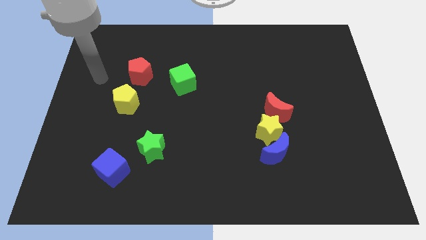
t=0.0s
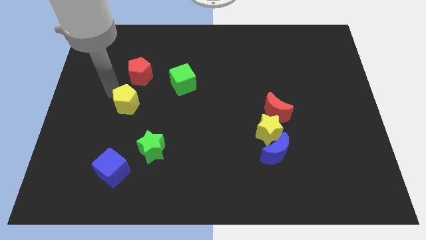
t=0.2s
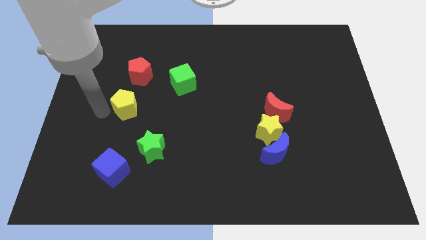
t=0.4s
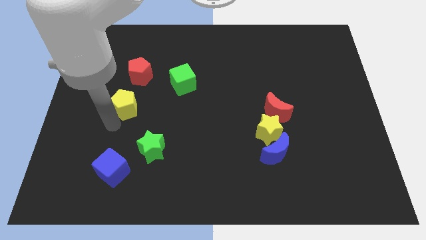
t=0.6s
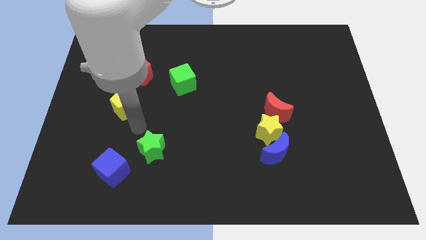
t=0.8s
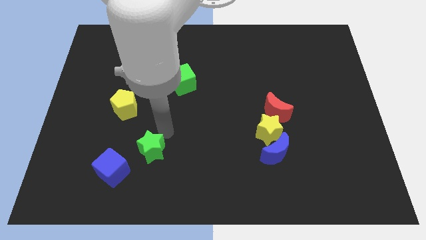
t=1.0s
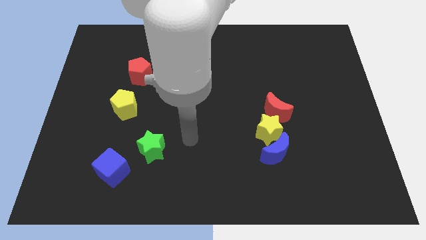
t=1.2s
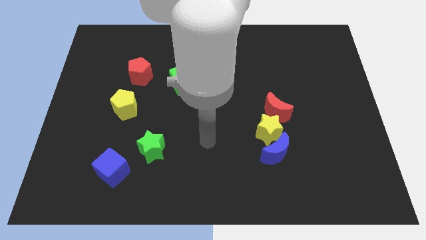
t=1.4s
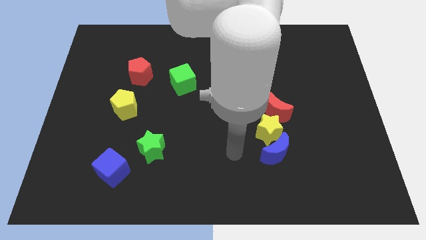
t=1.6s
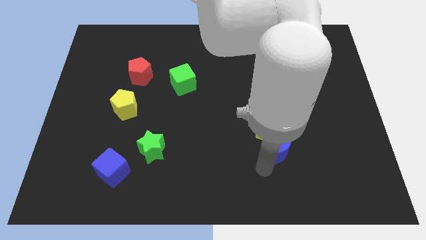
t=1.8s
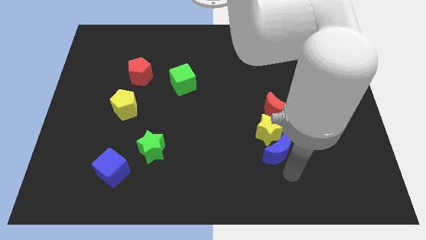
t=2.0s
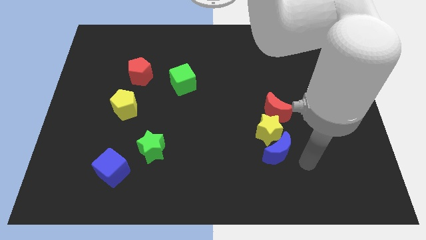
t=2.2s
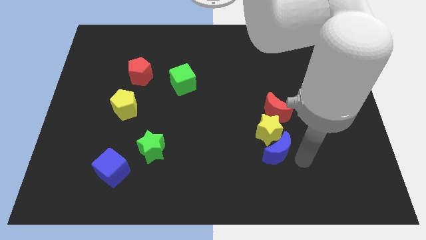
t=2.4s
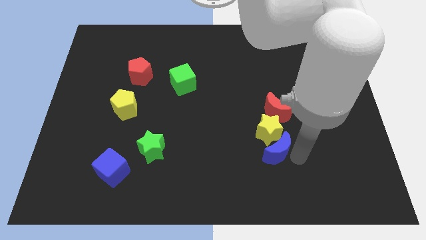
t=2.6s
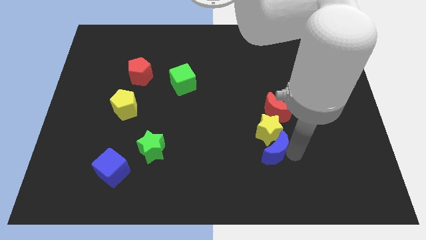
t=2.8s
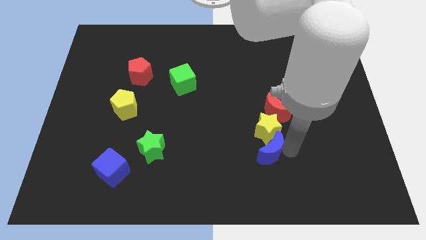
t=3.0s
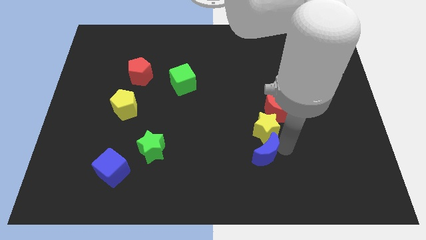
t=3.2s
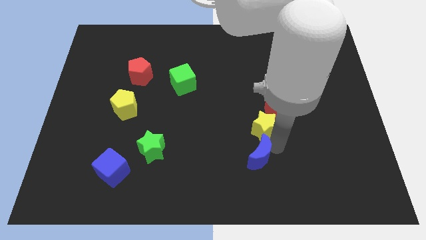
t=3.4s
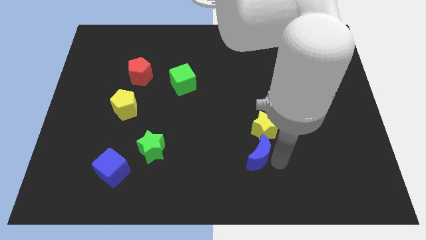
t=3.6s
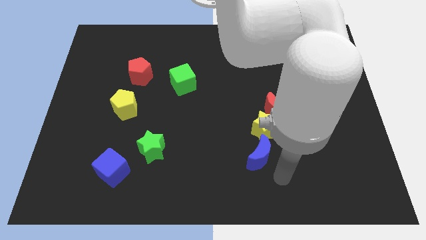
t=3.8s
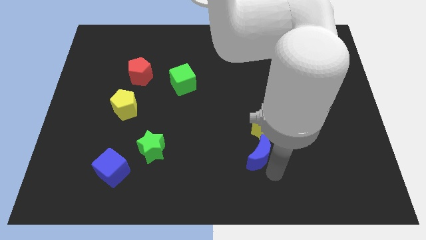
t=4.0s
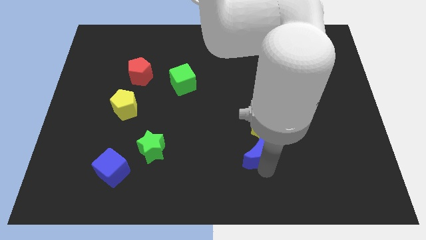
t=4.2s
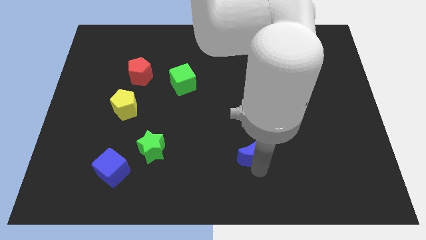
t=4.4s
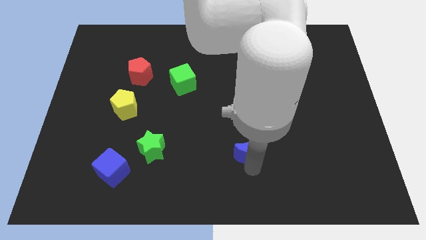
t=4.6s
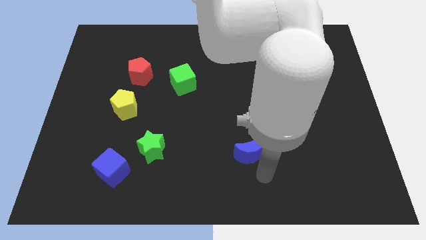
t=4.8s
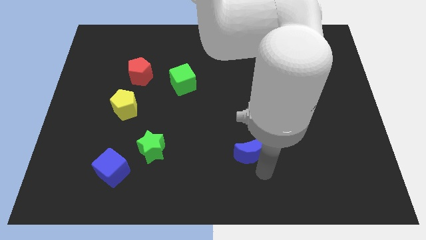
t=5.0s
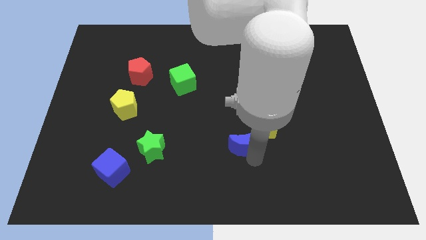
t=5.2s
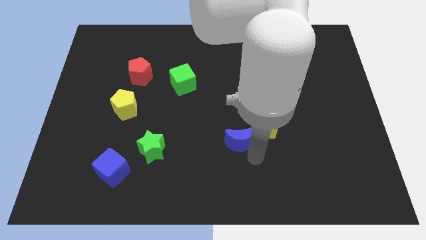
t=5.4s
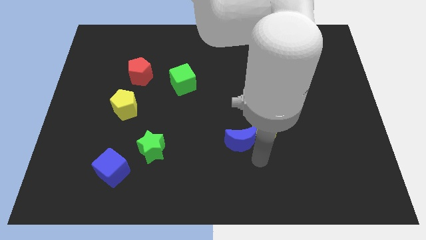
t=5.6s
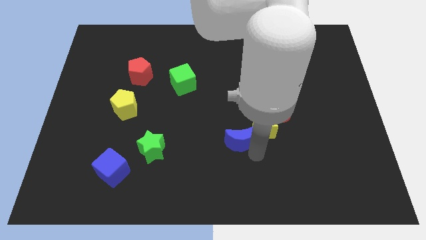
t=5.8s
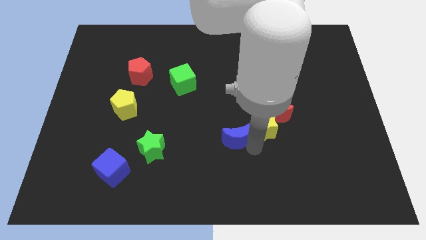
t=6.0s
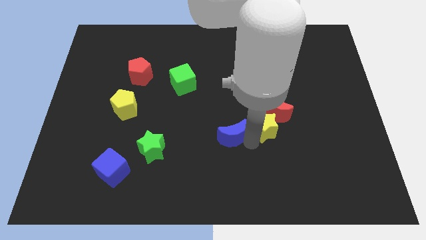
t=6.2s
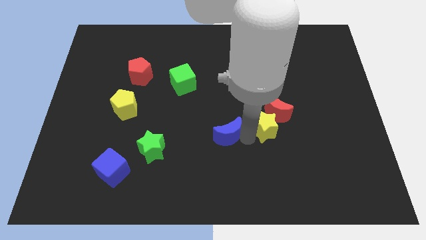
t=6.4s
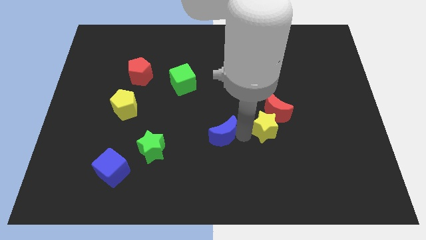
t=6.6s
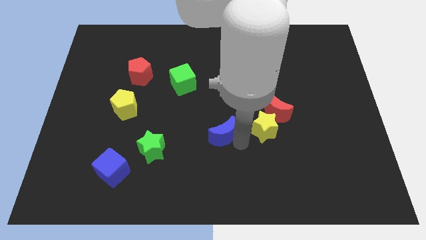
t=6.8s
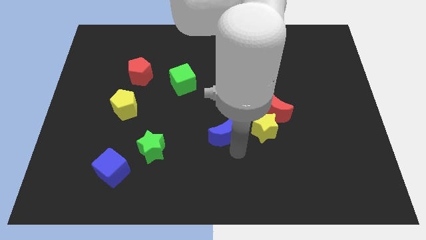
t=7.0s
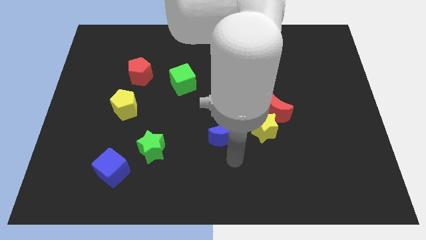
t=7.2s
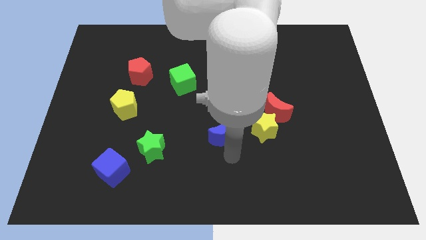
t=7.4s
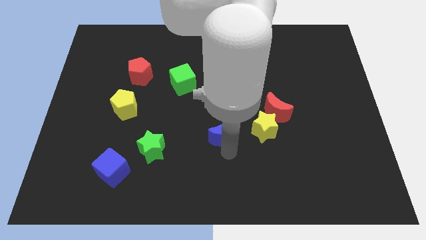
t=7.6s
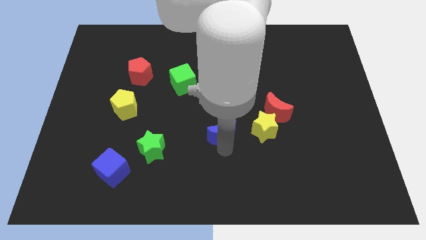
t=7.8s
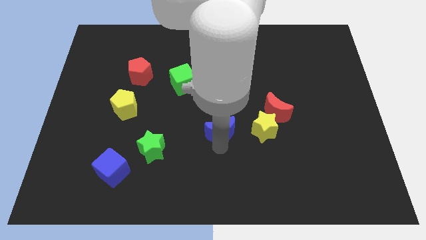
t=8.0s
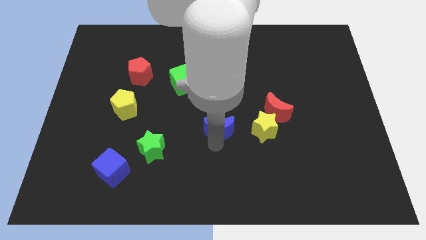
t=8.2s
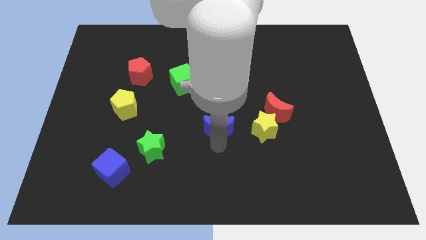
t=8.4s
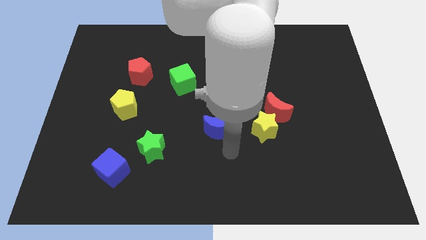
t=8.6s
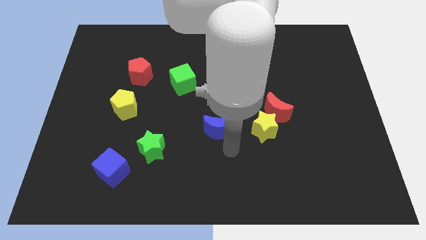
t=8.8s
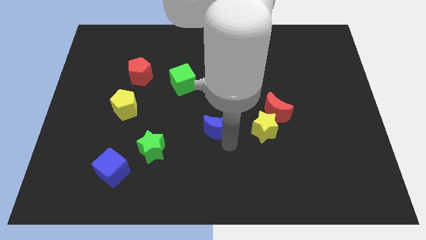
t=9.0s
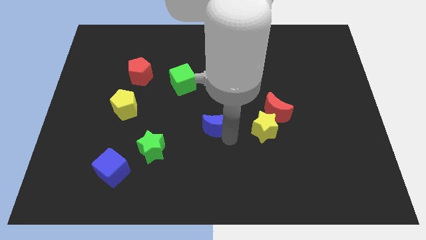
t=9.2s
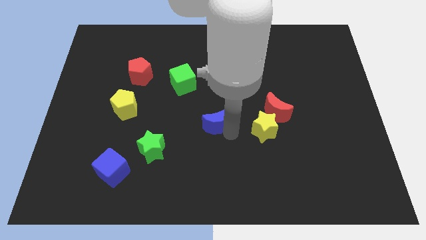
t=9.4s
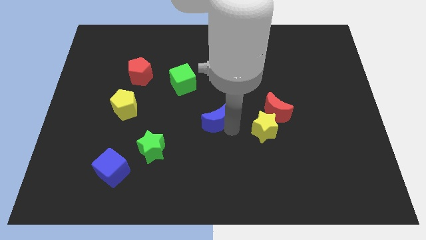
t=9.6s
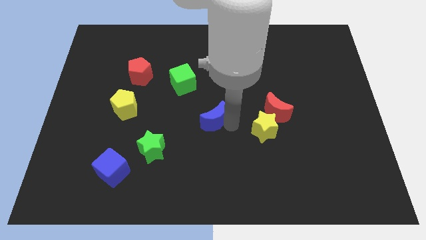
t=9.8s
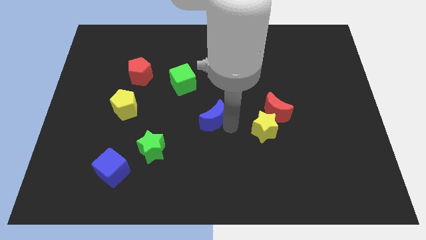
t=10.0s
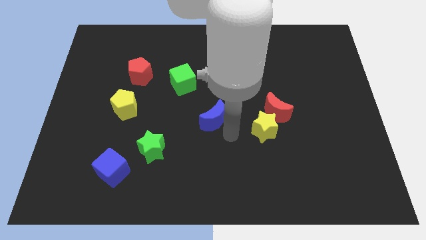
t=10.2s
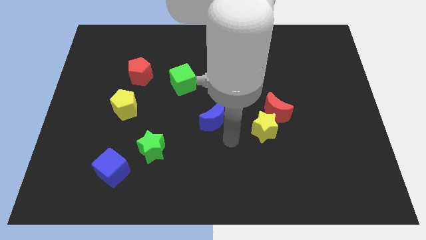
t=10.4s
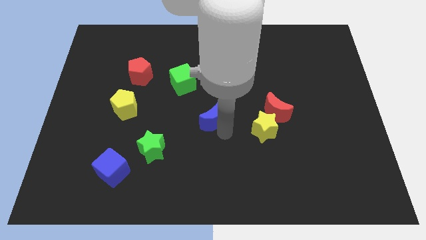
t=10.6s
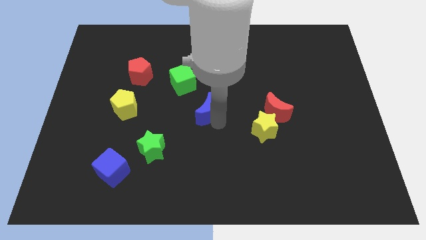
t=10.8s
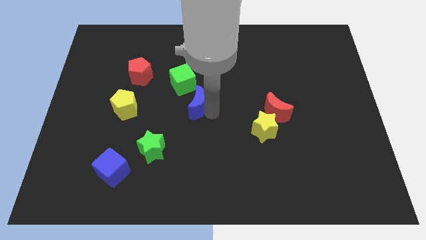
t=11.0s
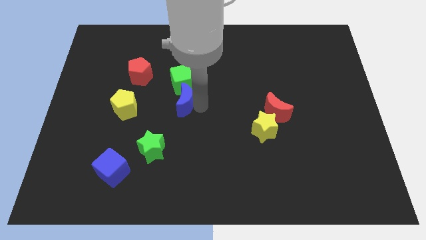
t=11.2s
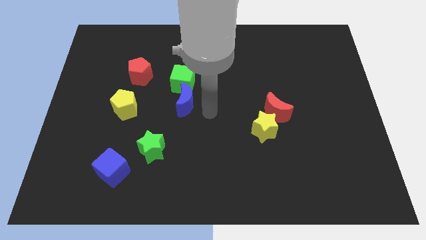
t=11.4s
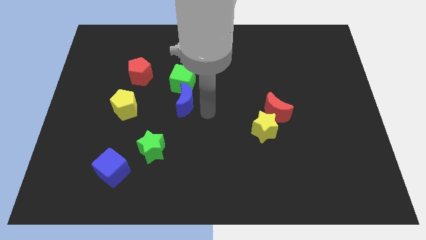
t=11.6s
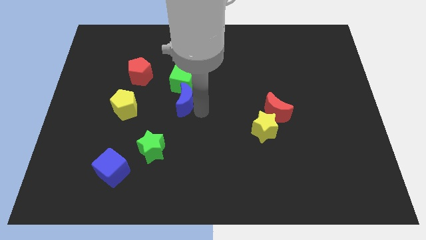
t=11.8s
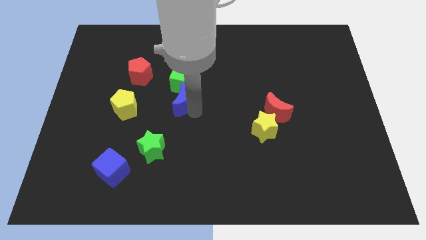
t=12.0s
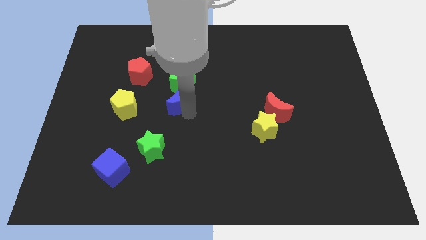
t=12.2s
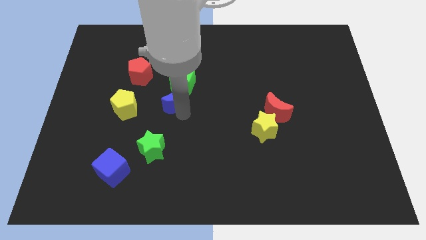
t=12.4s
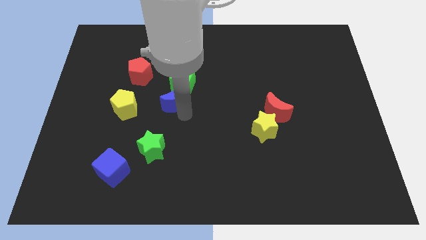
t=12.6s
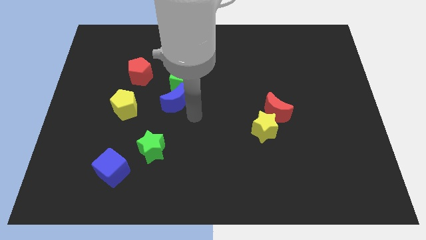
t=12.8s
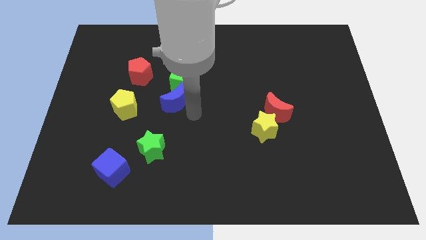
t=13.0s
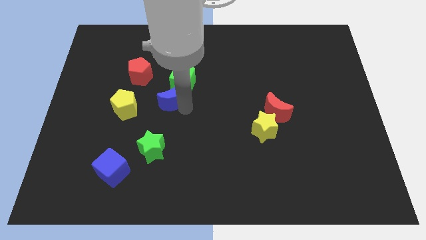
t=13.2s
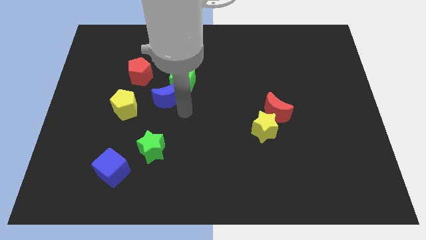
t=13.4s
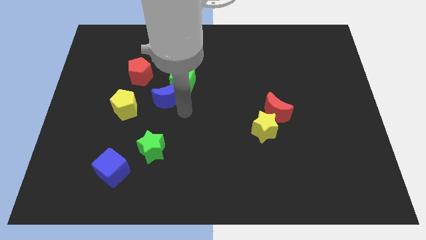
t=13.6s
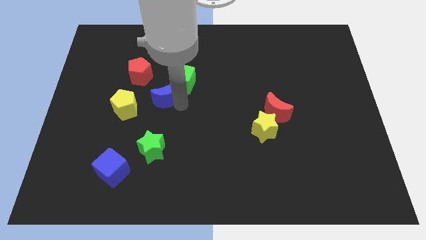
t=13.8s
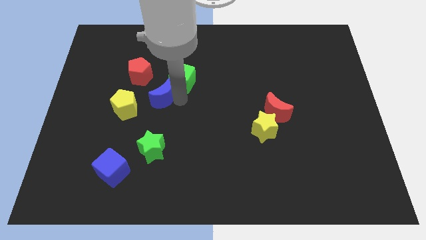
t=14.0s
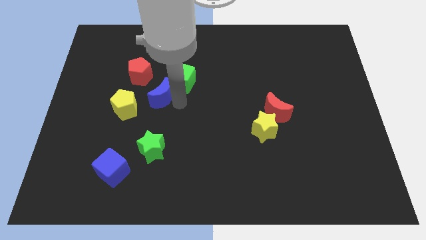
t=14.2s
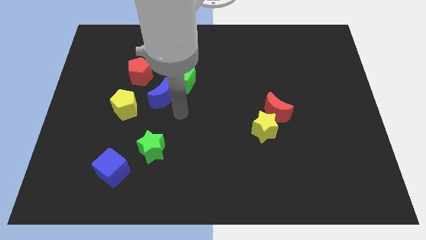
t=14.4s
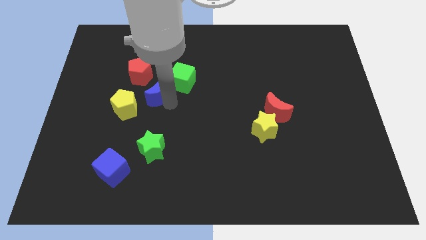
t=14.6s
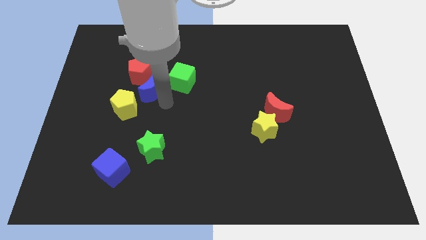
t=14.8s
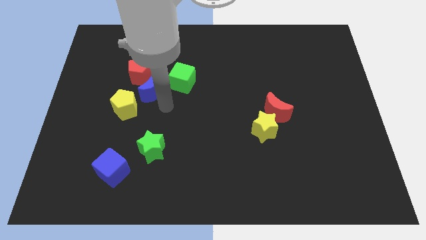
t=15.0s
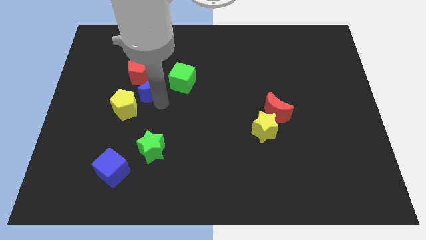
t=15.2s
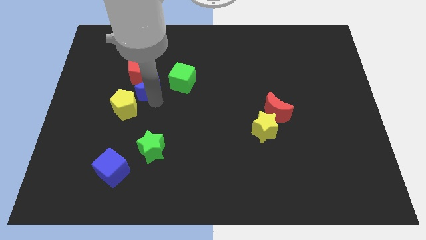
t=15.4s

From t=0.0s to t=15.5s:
slide the blue moon to the red pentagon
